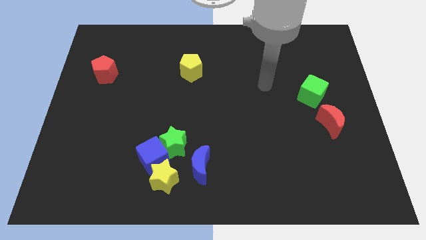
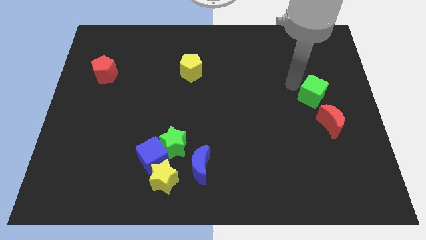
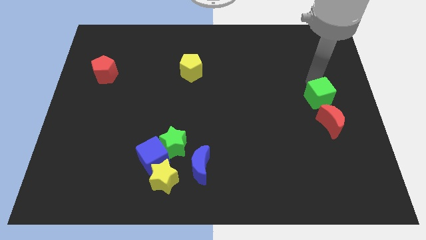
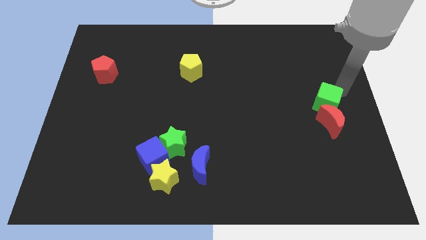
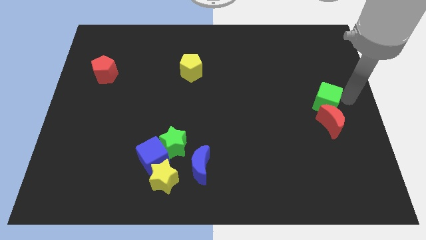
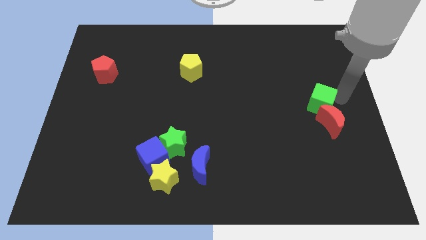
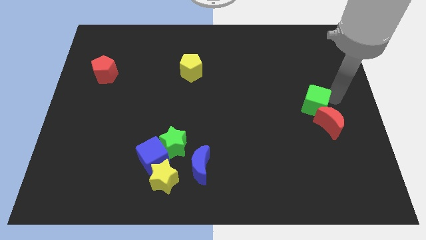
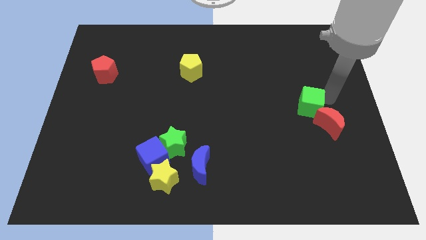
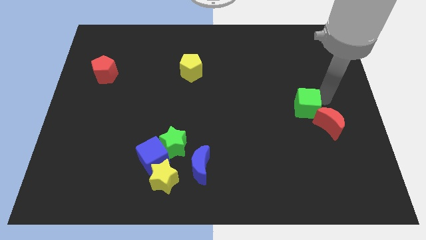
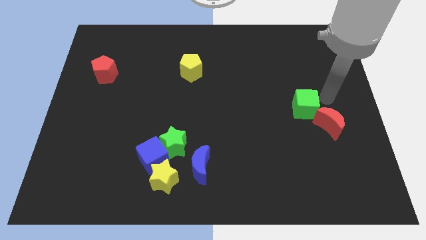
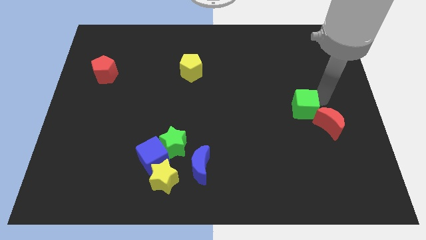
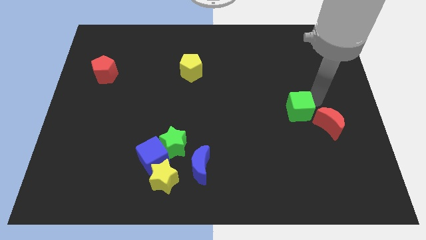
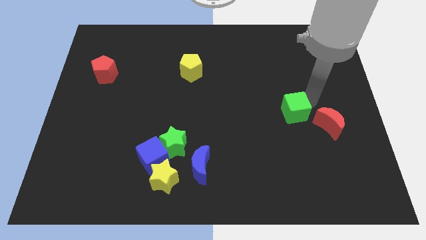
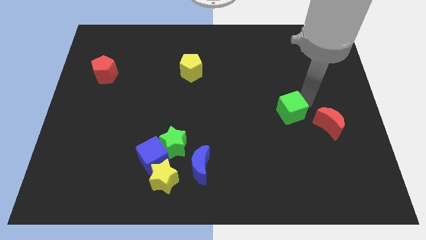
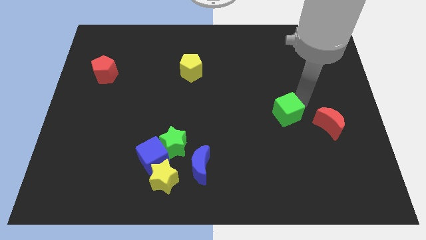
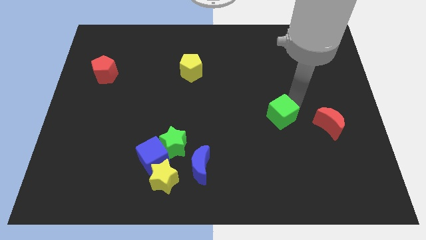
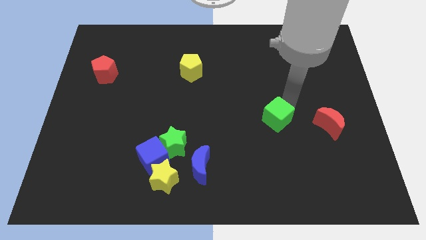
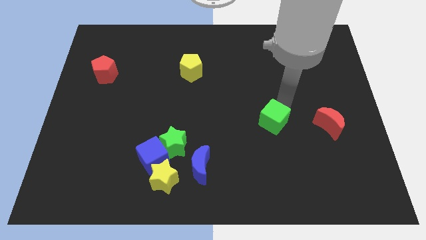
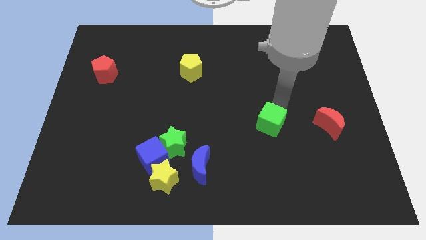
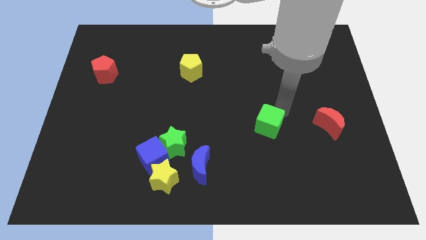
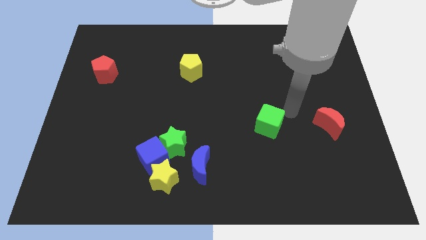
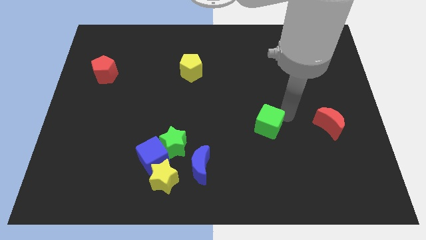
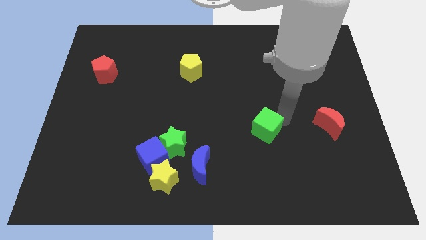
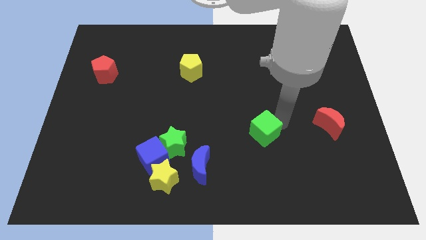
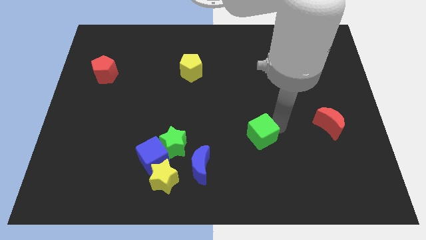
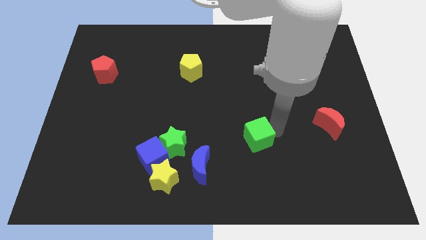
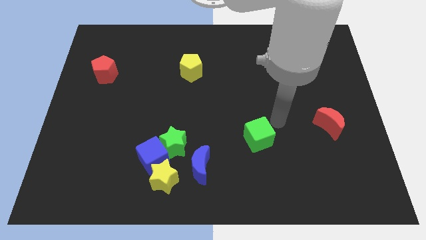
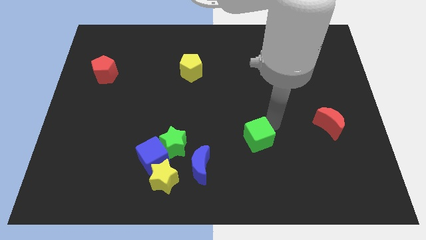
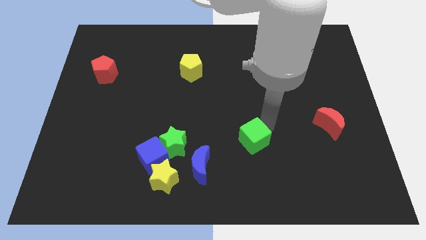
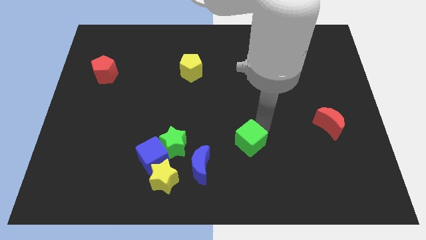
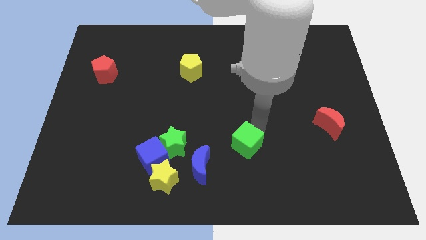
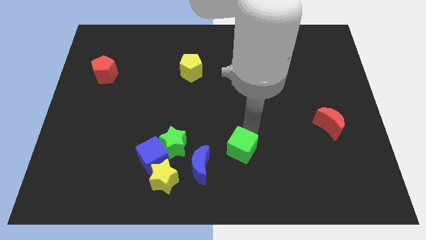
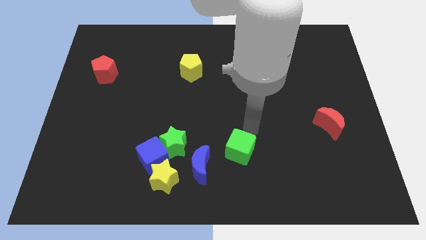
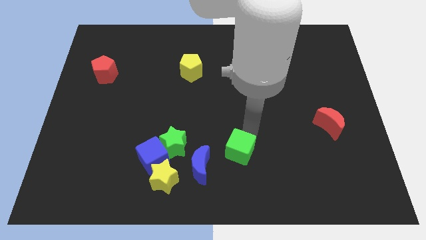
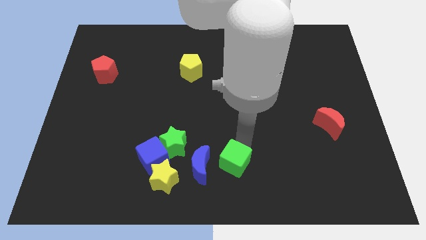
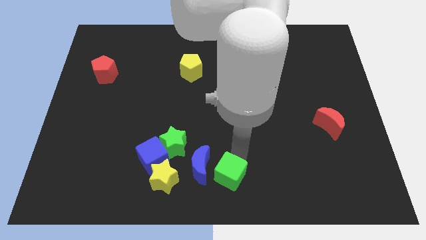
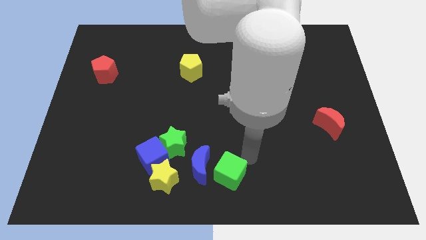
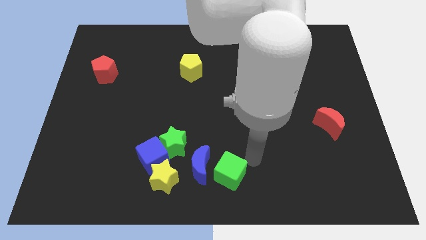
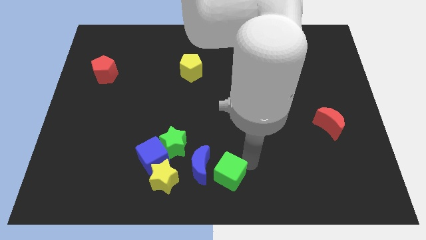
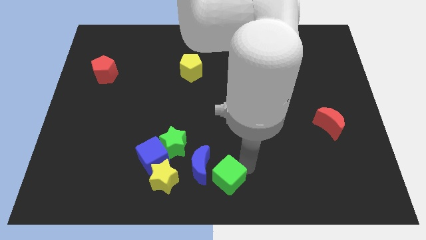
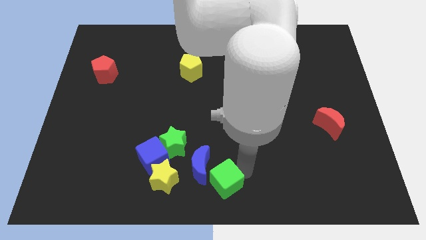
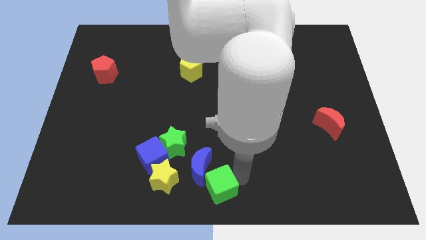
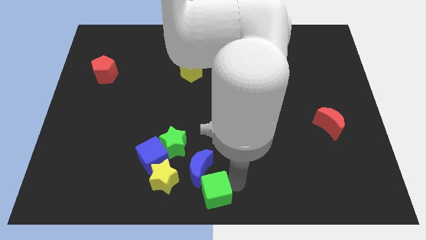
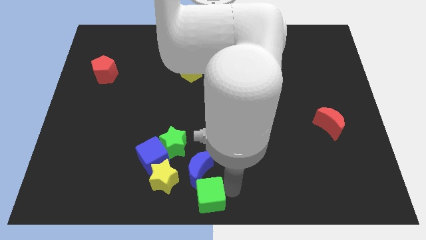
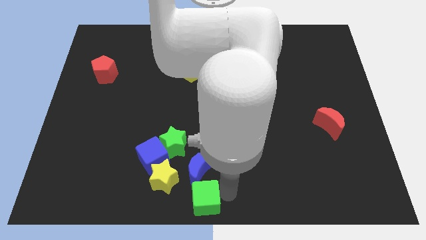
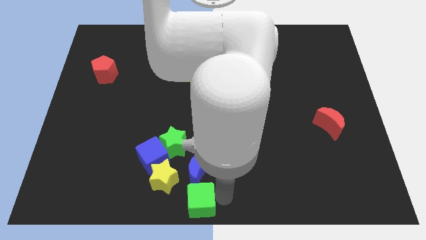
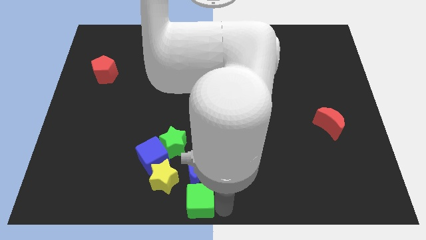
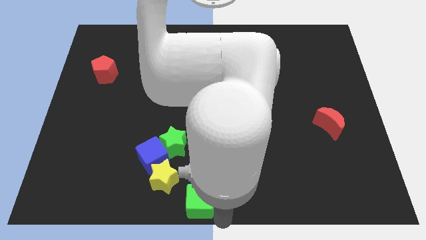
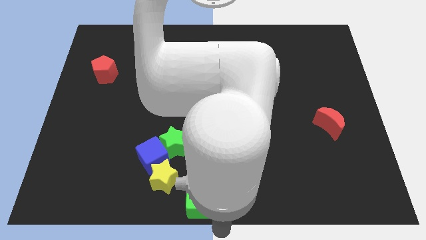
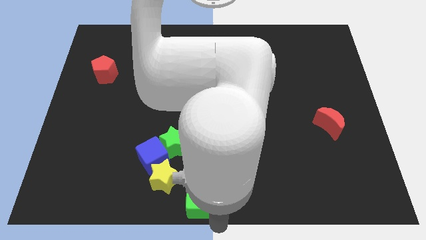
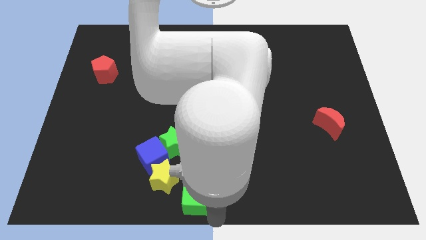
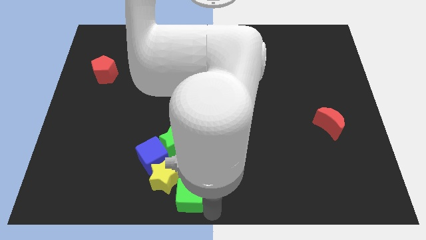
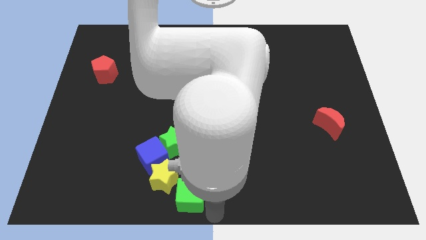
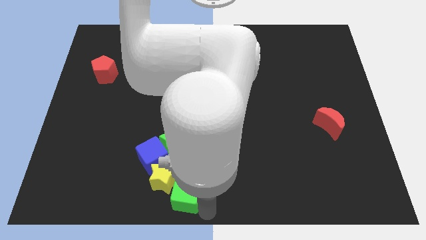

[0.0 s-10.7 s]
slide the green cube to the yellow star

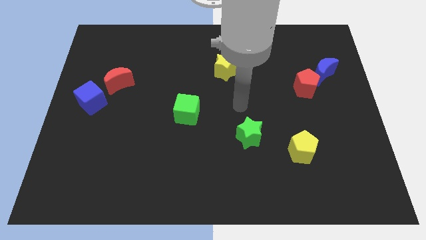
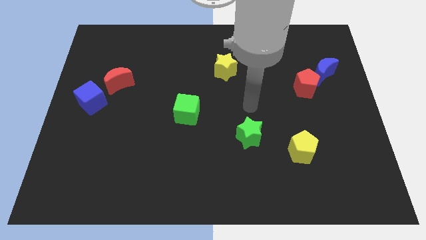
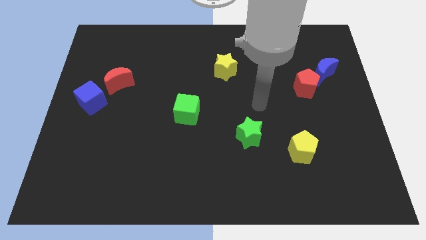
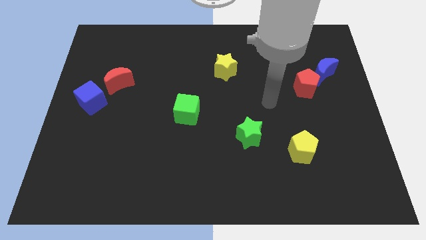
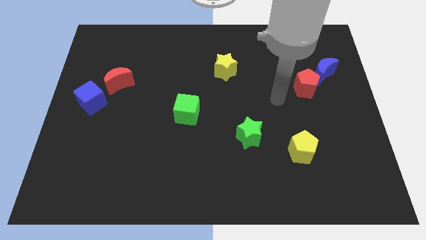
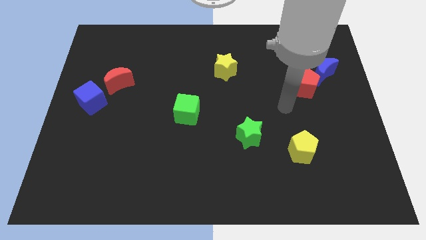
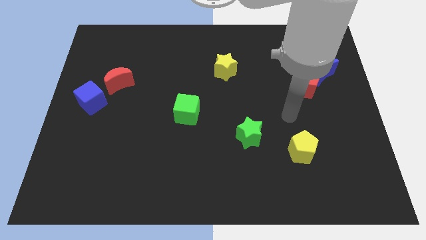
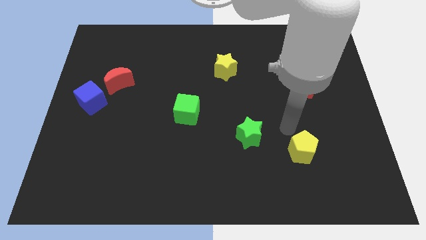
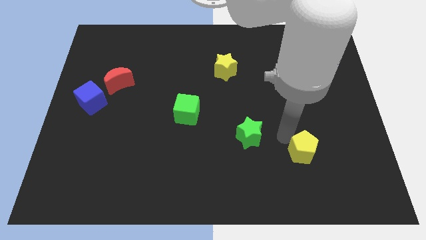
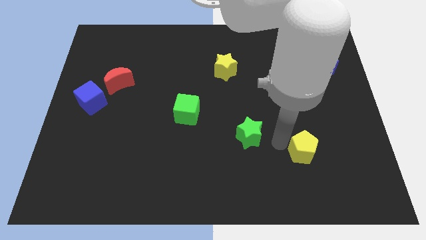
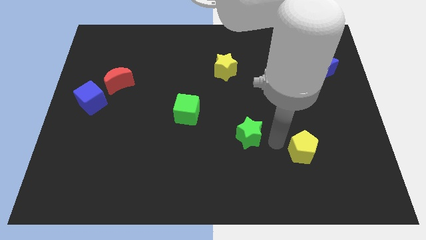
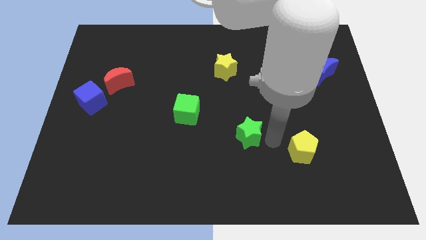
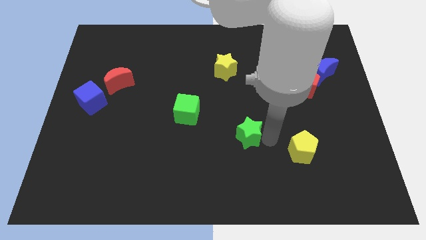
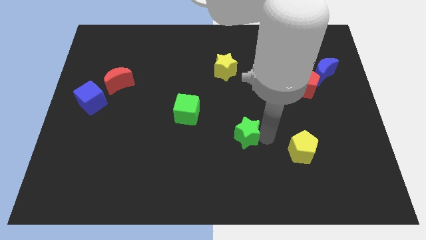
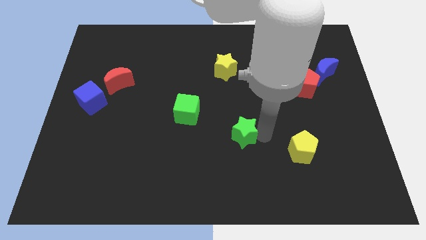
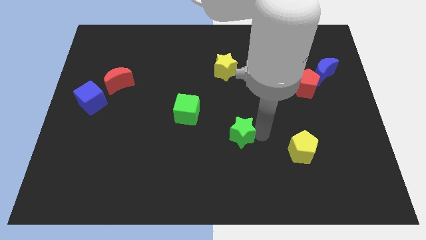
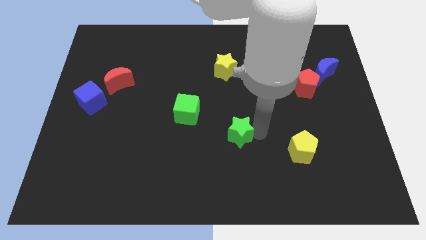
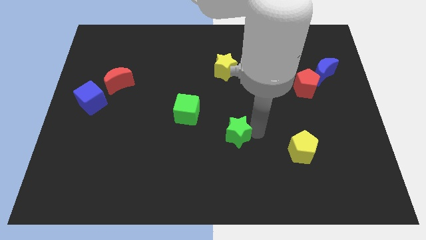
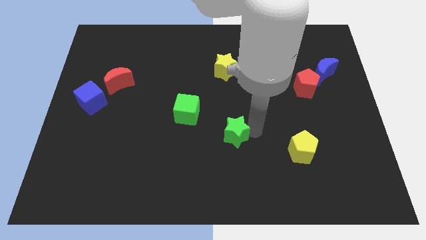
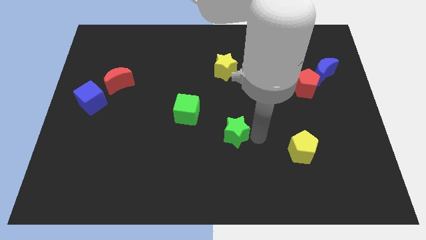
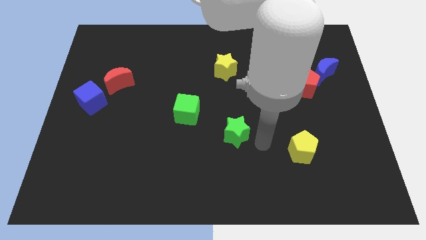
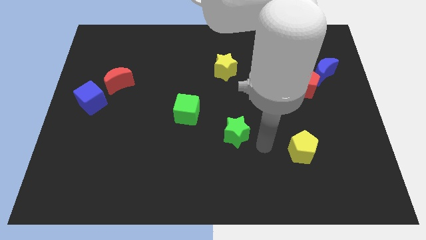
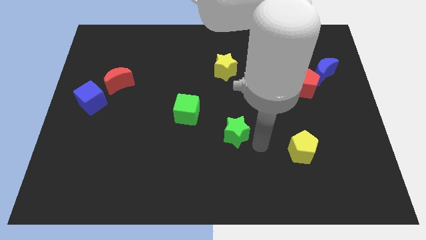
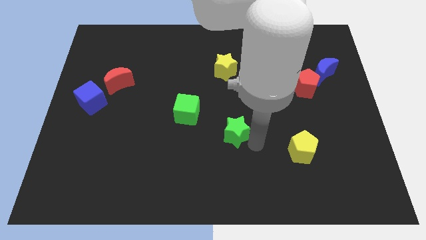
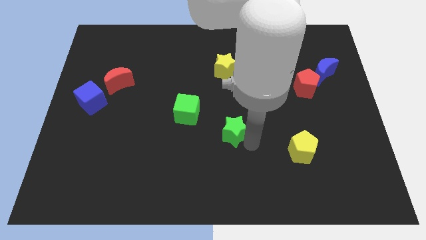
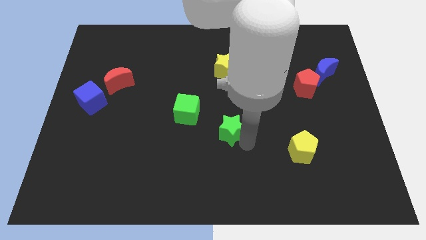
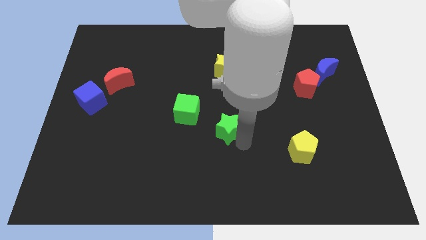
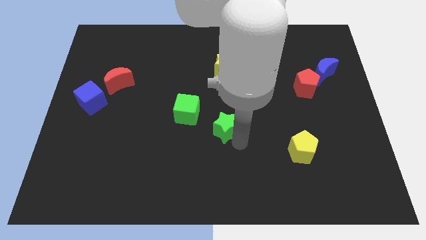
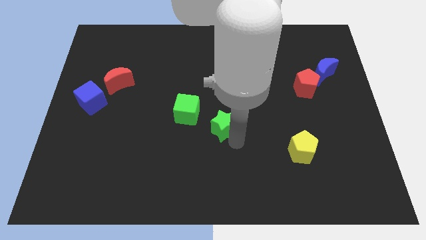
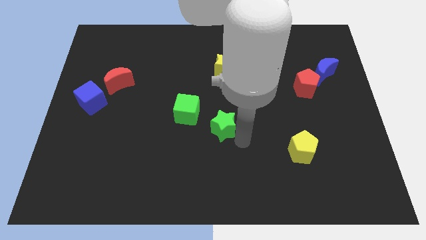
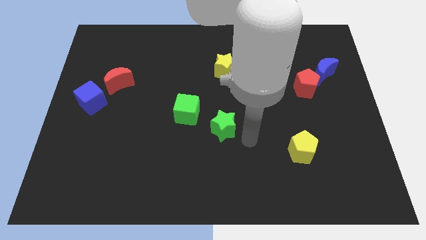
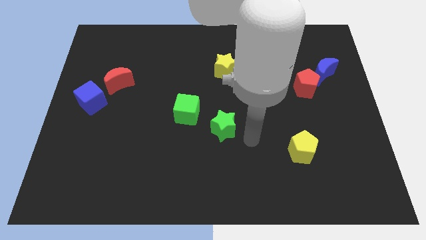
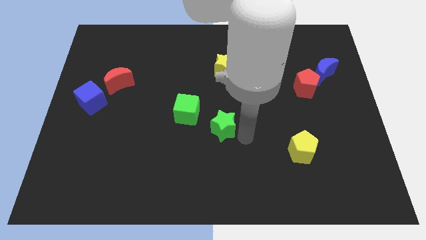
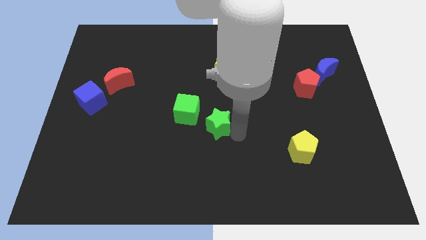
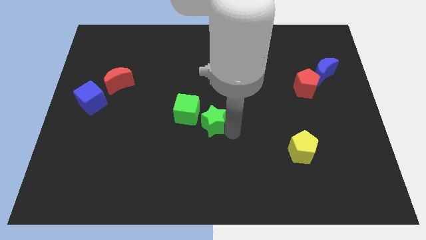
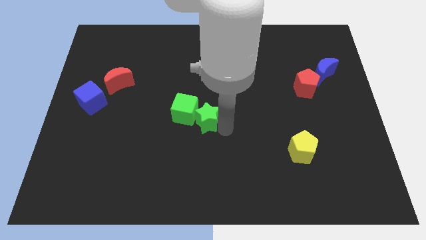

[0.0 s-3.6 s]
move the green star towards the green cube
